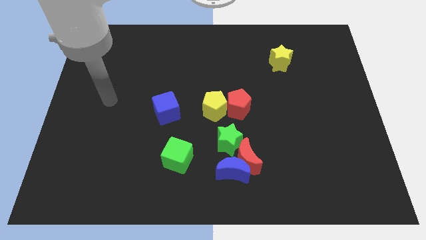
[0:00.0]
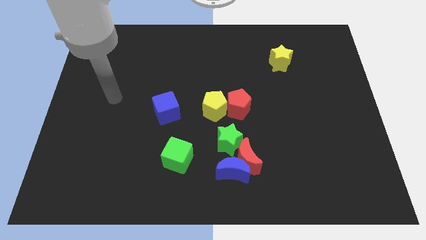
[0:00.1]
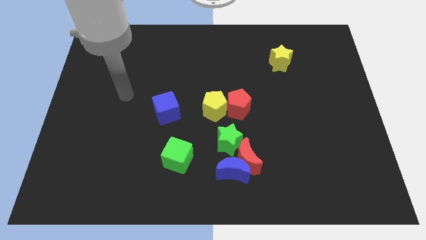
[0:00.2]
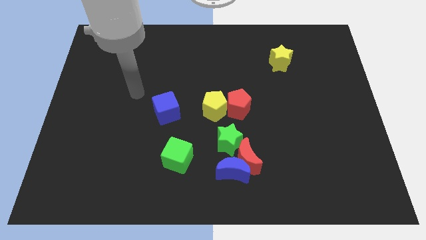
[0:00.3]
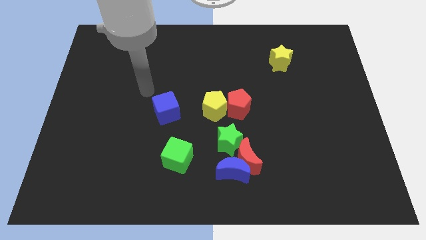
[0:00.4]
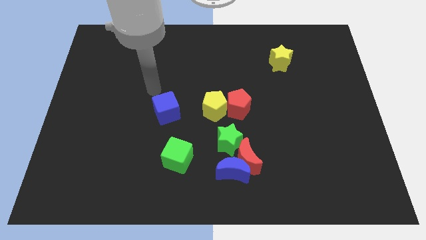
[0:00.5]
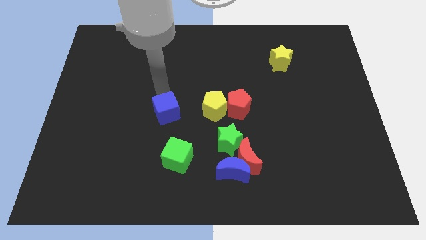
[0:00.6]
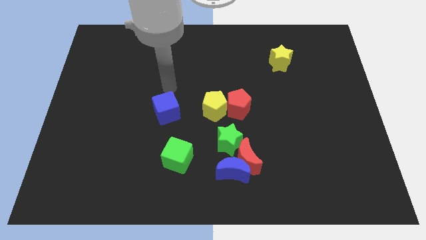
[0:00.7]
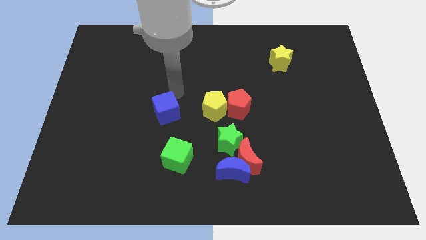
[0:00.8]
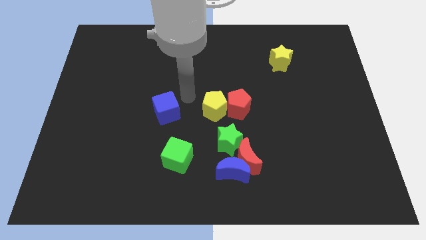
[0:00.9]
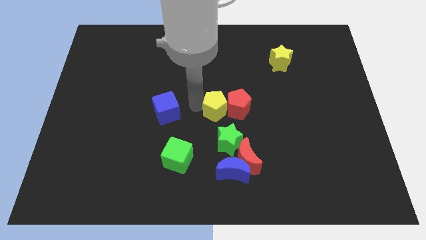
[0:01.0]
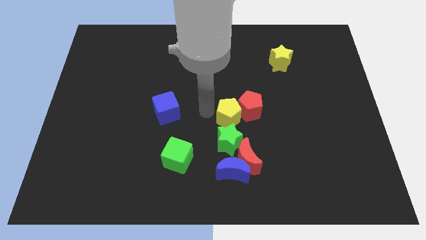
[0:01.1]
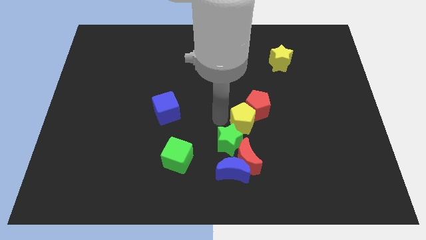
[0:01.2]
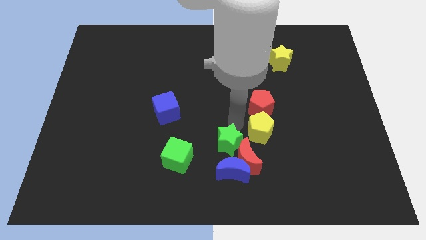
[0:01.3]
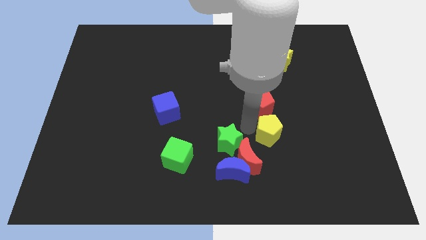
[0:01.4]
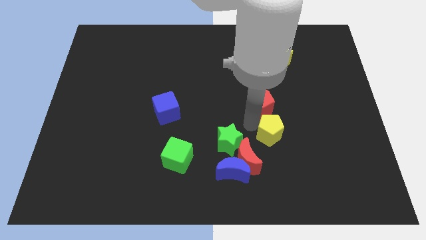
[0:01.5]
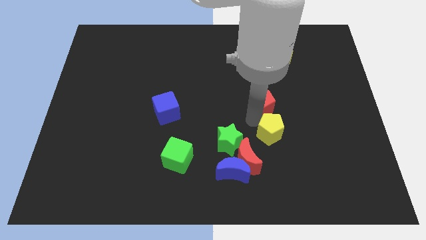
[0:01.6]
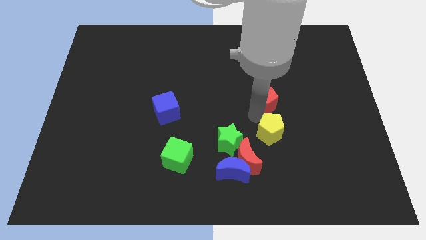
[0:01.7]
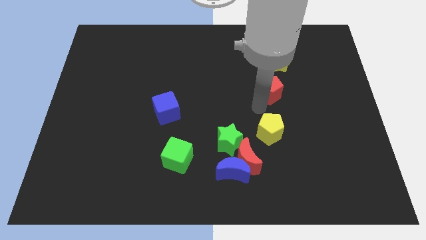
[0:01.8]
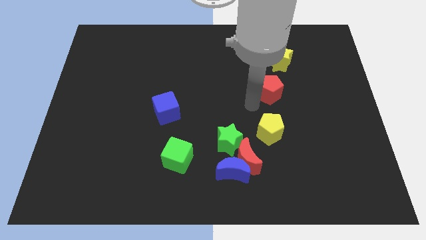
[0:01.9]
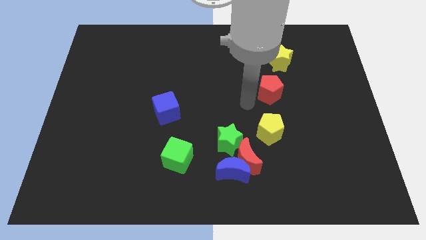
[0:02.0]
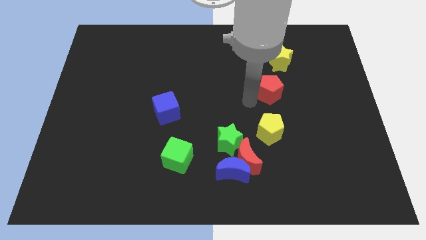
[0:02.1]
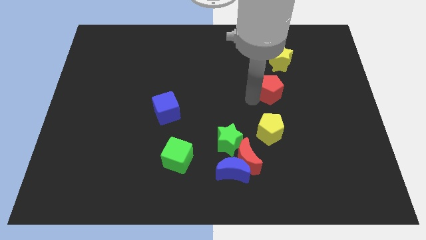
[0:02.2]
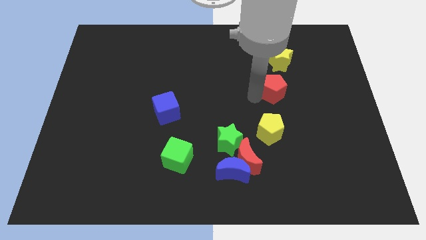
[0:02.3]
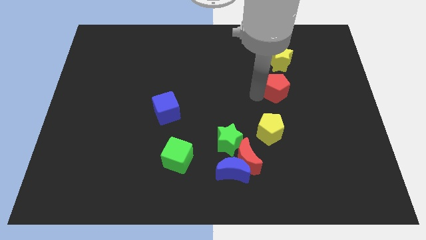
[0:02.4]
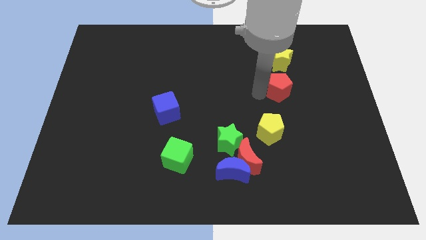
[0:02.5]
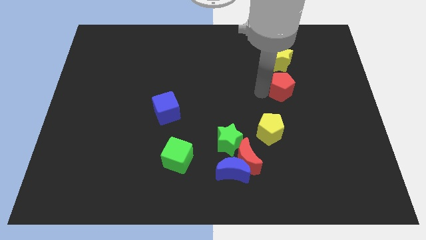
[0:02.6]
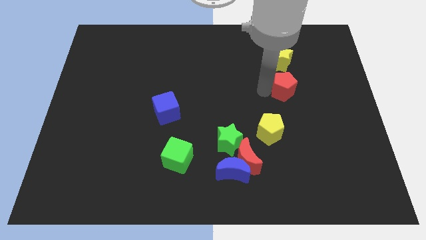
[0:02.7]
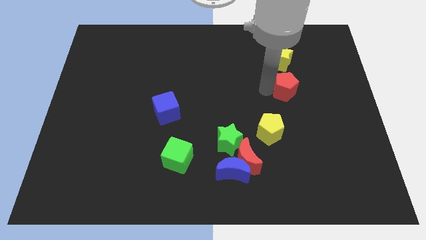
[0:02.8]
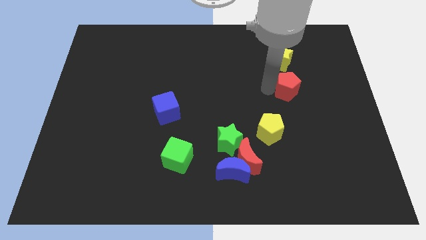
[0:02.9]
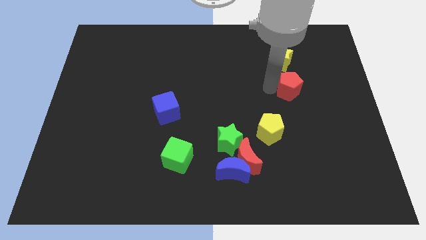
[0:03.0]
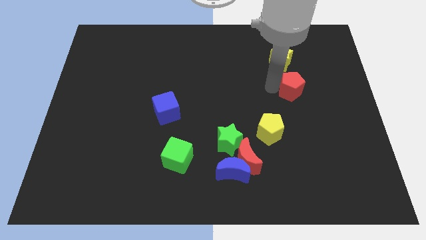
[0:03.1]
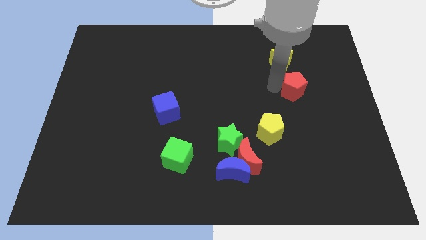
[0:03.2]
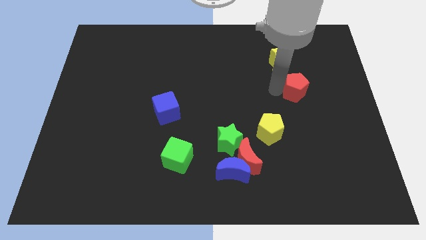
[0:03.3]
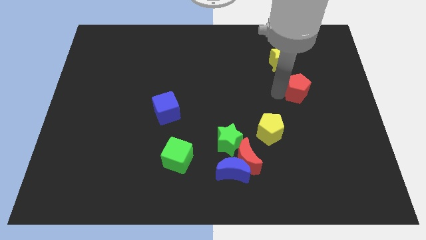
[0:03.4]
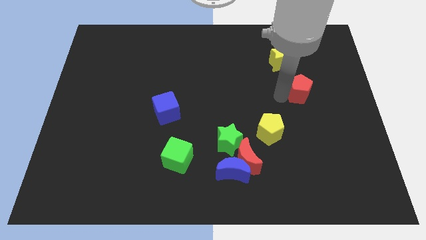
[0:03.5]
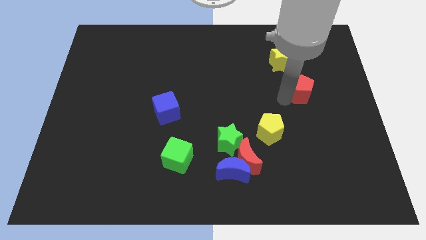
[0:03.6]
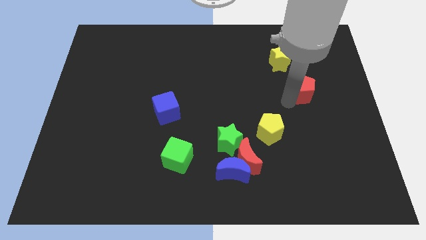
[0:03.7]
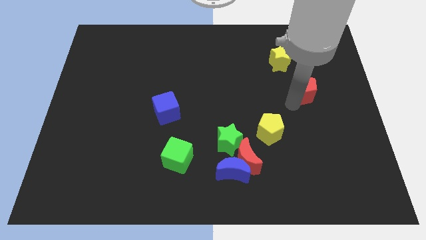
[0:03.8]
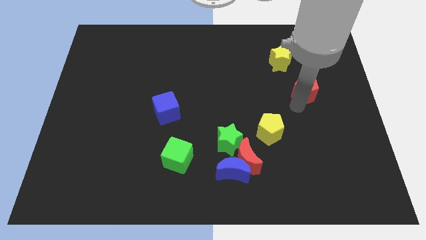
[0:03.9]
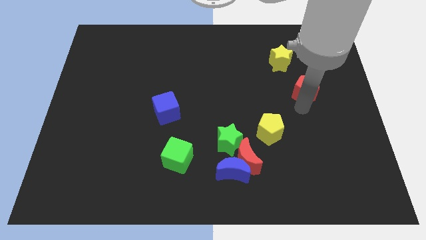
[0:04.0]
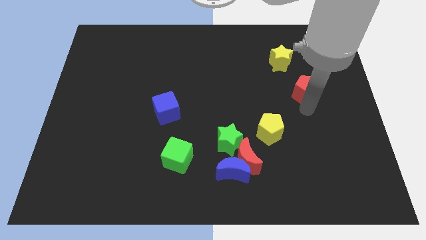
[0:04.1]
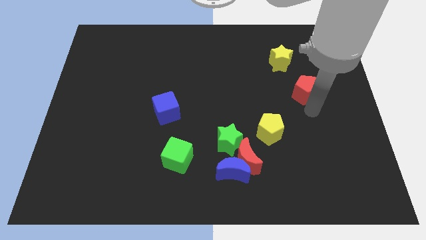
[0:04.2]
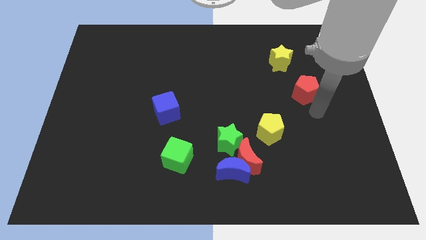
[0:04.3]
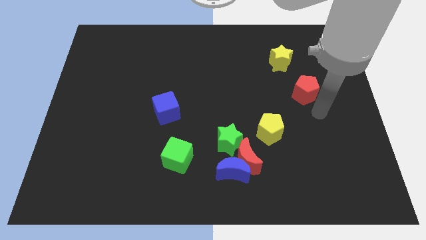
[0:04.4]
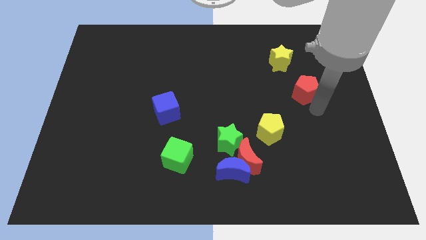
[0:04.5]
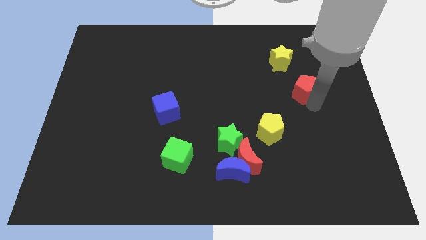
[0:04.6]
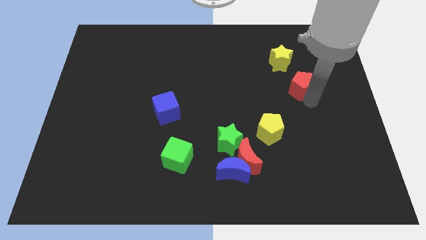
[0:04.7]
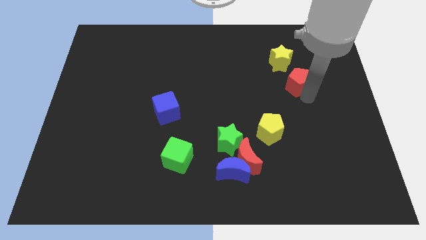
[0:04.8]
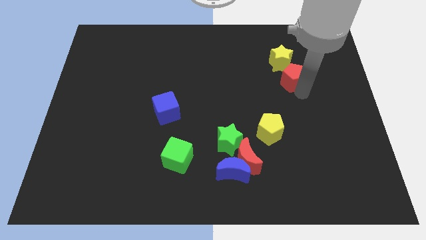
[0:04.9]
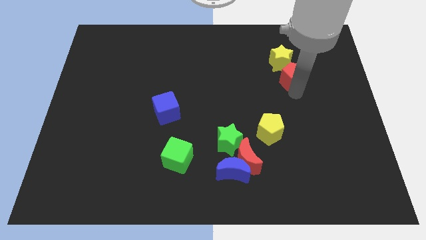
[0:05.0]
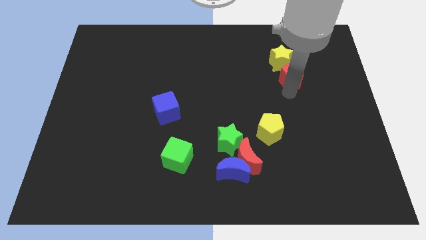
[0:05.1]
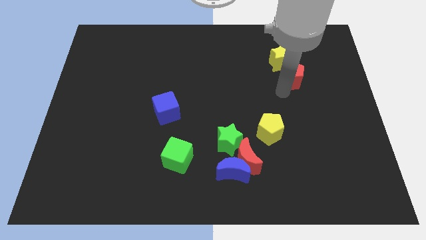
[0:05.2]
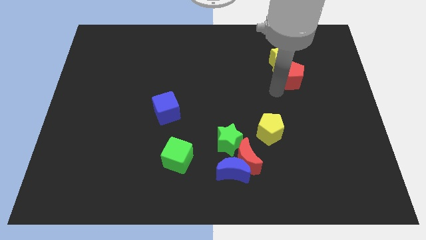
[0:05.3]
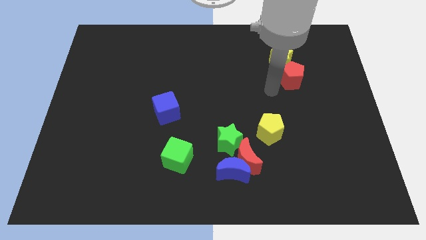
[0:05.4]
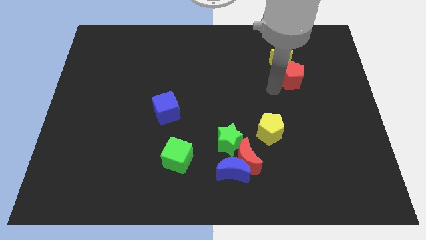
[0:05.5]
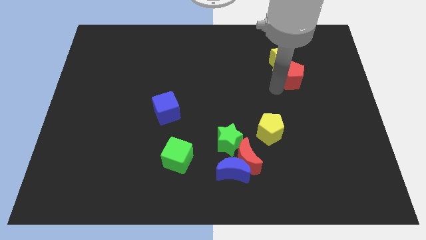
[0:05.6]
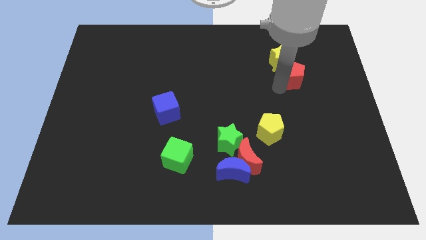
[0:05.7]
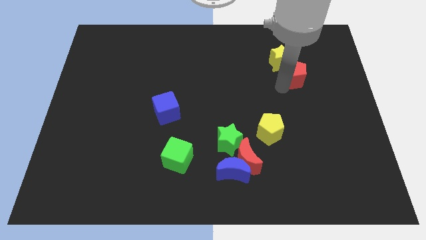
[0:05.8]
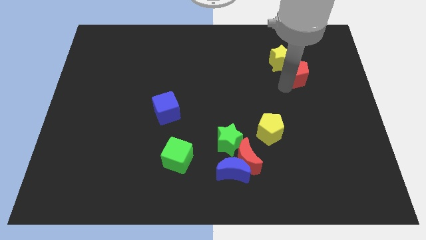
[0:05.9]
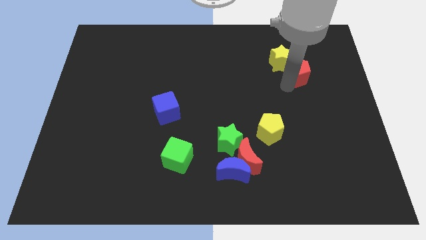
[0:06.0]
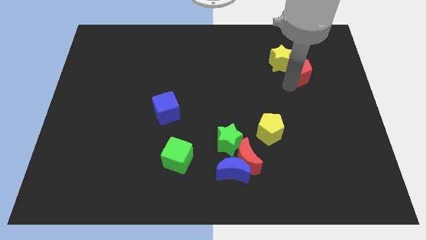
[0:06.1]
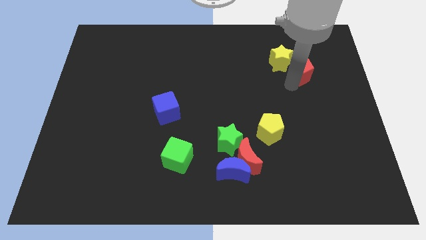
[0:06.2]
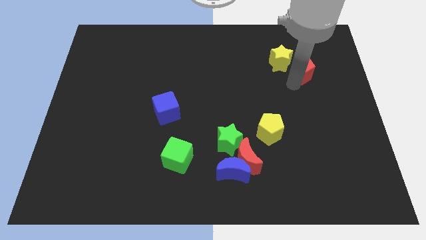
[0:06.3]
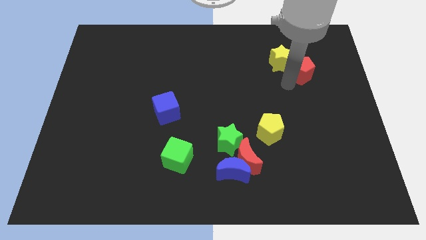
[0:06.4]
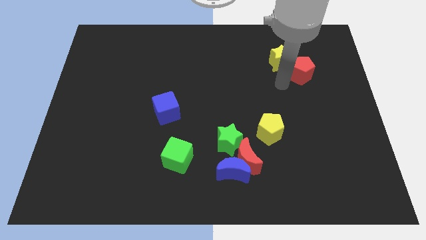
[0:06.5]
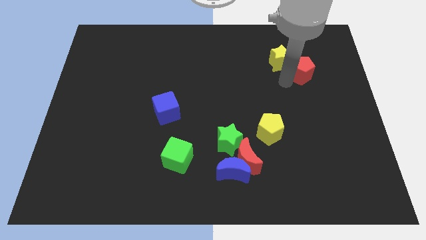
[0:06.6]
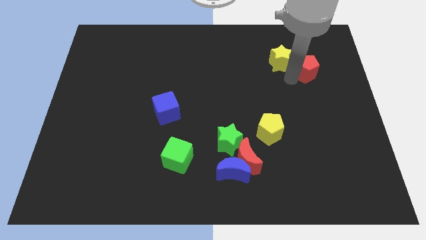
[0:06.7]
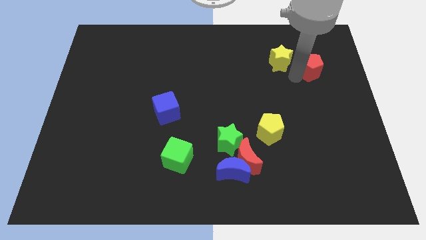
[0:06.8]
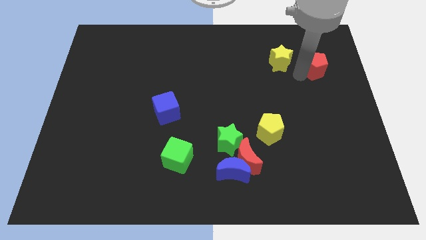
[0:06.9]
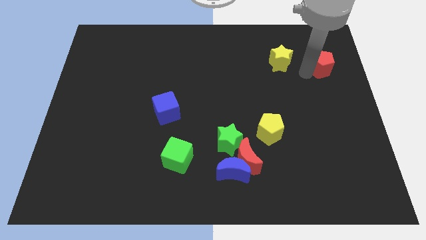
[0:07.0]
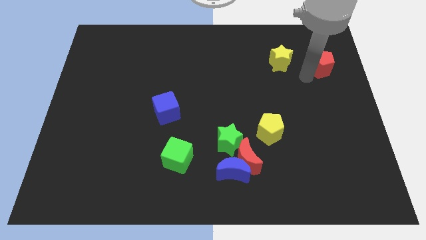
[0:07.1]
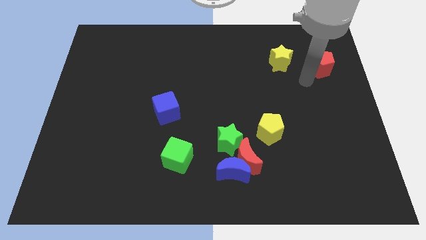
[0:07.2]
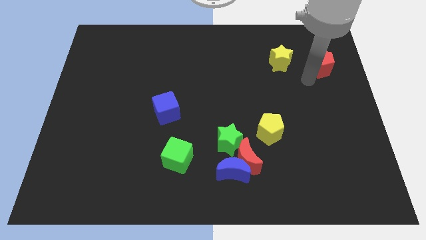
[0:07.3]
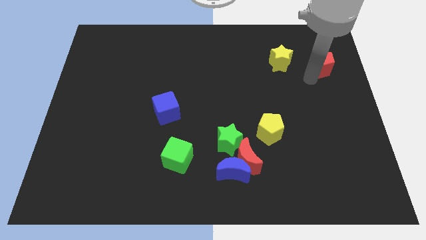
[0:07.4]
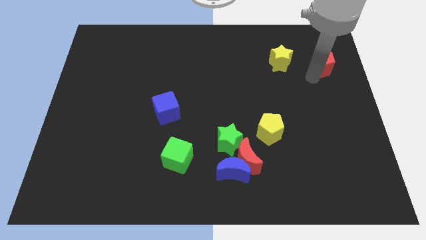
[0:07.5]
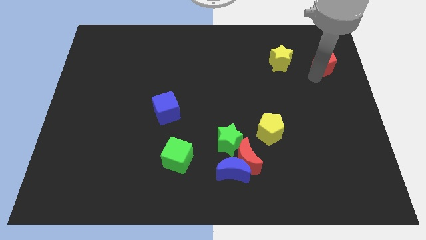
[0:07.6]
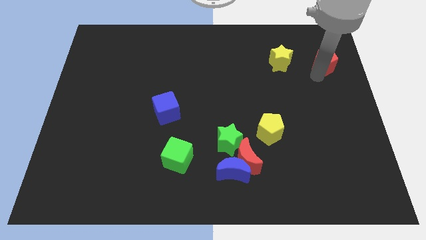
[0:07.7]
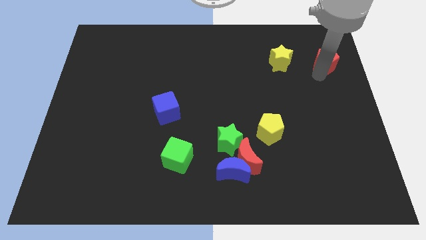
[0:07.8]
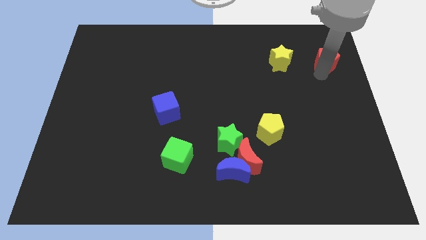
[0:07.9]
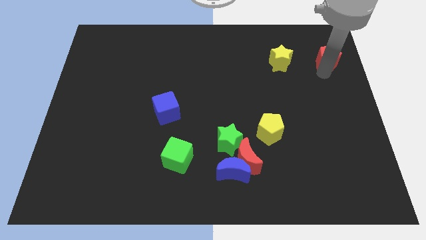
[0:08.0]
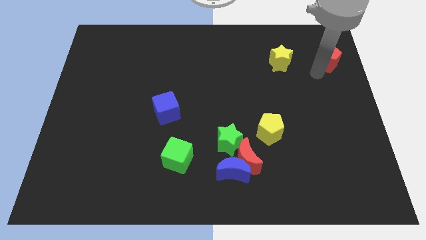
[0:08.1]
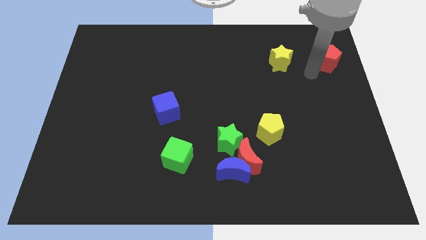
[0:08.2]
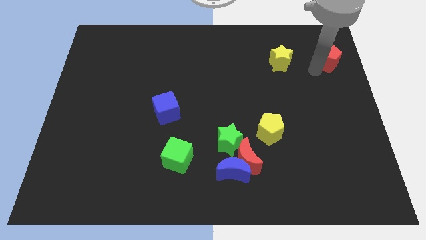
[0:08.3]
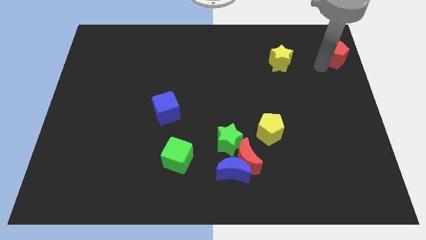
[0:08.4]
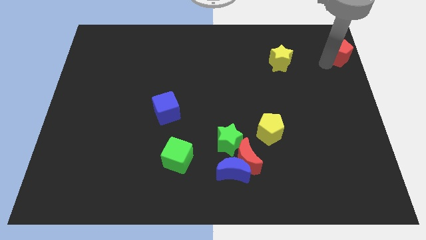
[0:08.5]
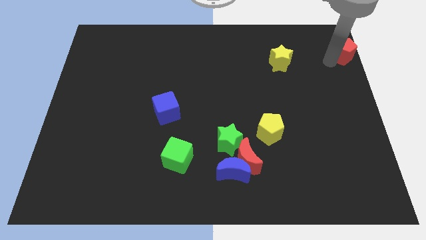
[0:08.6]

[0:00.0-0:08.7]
put the red pentagon to the top right of the board
